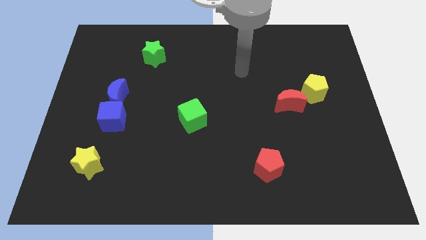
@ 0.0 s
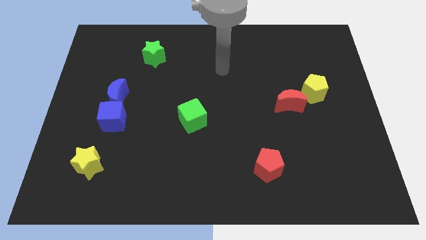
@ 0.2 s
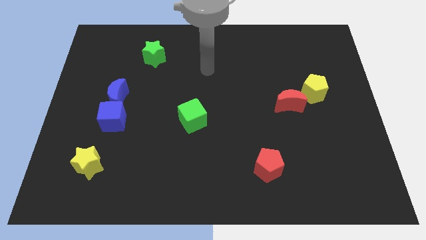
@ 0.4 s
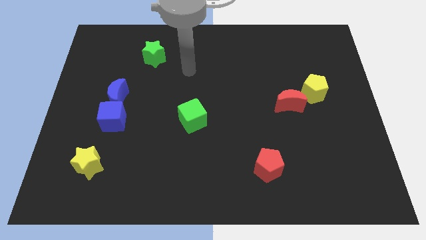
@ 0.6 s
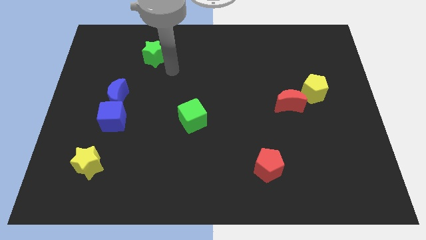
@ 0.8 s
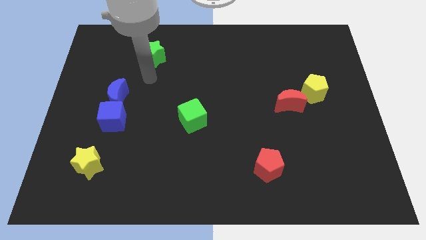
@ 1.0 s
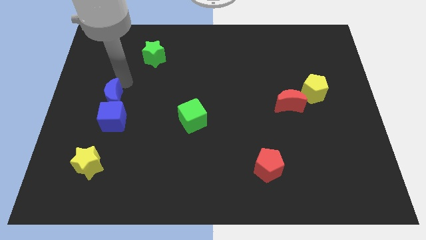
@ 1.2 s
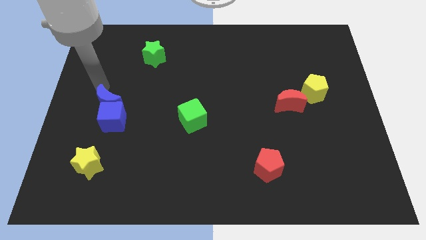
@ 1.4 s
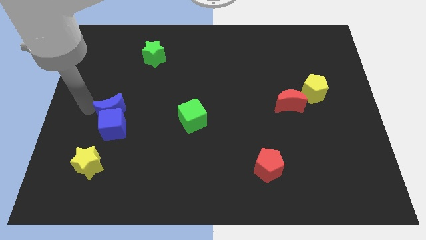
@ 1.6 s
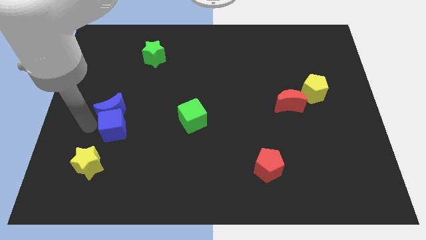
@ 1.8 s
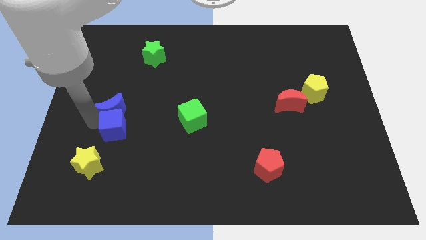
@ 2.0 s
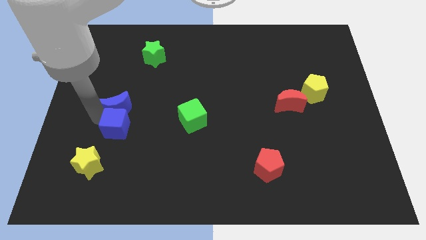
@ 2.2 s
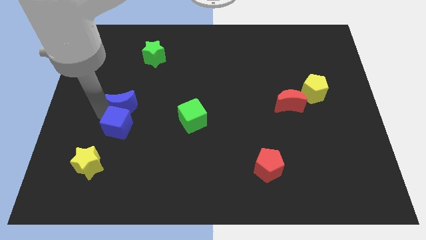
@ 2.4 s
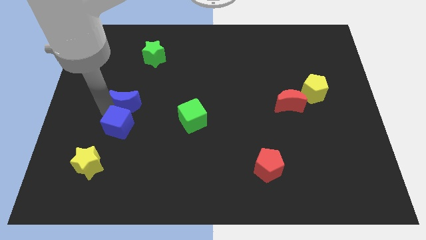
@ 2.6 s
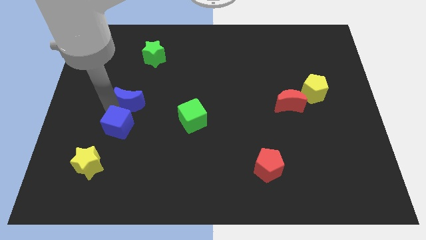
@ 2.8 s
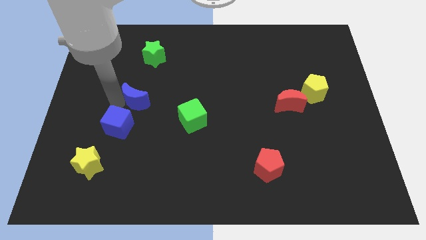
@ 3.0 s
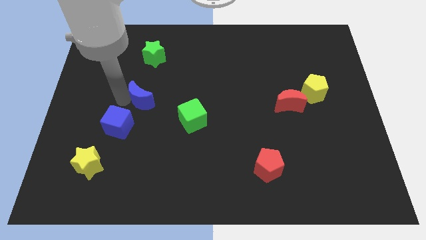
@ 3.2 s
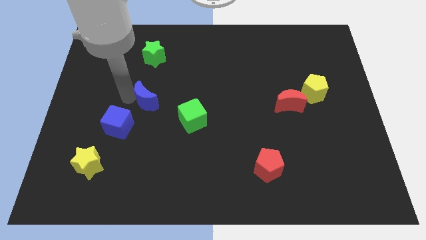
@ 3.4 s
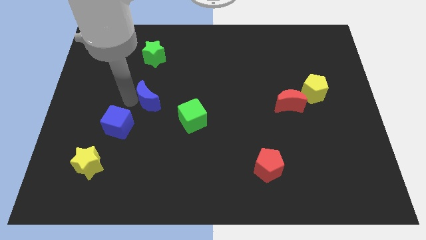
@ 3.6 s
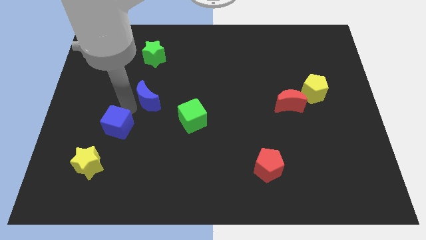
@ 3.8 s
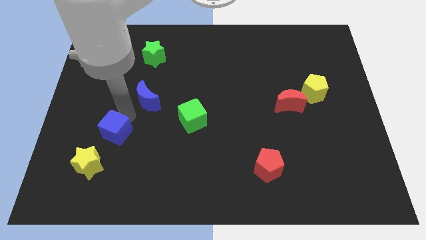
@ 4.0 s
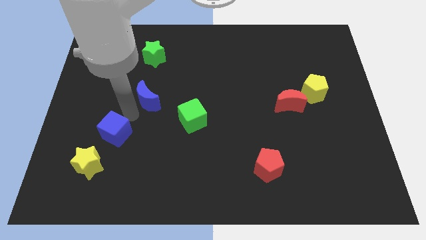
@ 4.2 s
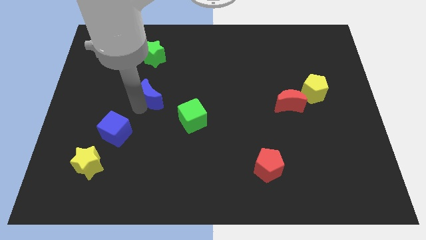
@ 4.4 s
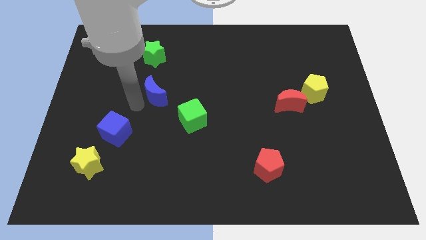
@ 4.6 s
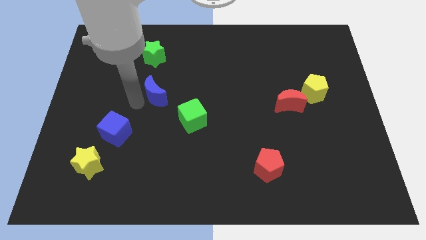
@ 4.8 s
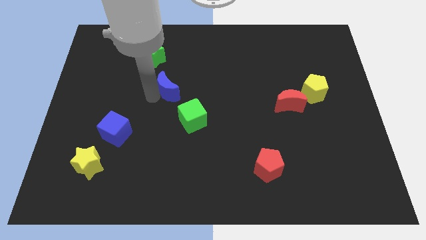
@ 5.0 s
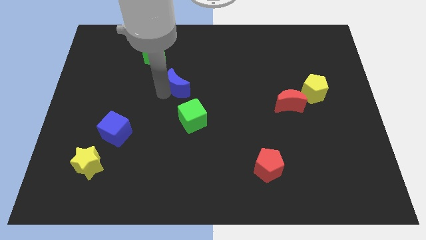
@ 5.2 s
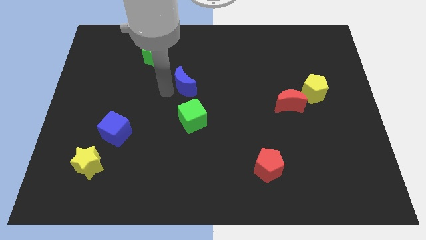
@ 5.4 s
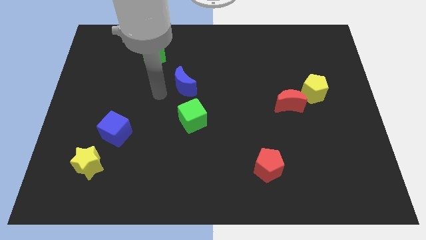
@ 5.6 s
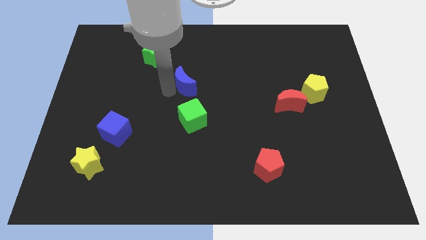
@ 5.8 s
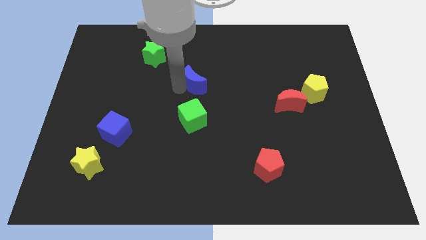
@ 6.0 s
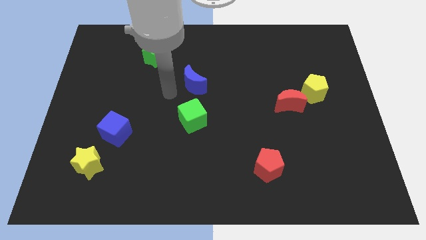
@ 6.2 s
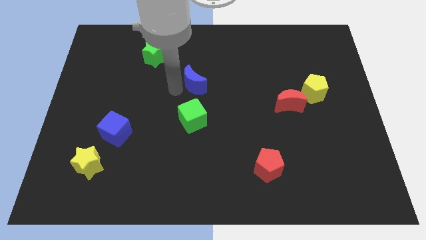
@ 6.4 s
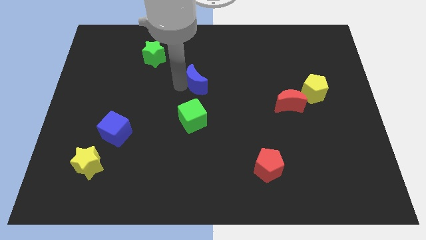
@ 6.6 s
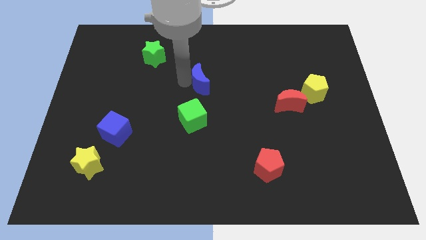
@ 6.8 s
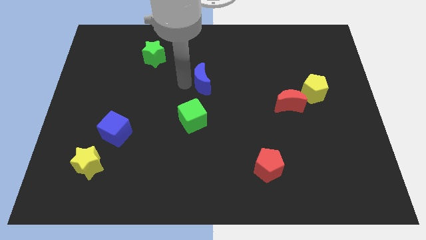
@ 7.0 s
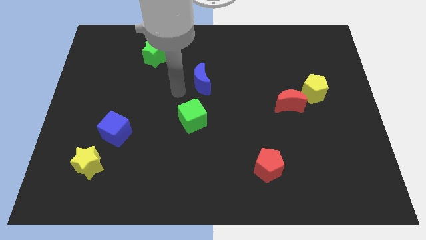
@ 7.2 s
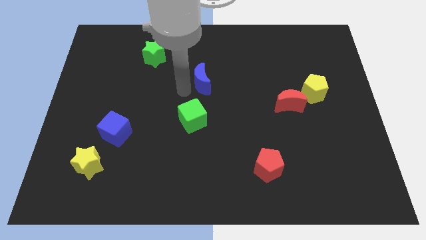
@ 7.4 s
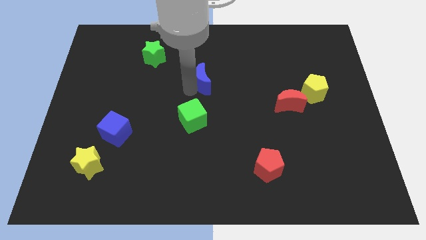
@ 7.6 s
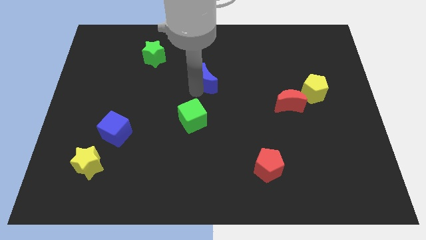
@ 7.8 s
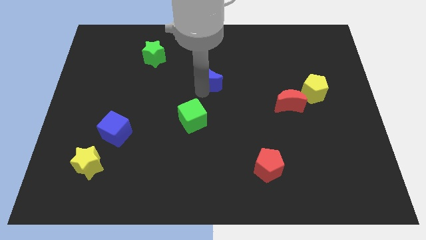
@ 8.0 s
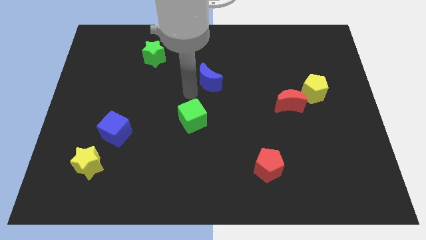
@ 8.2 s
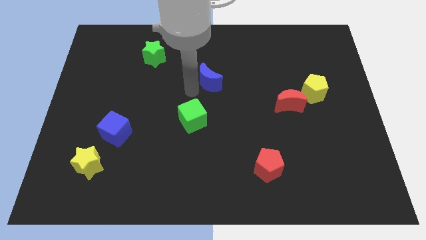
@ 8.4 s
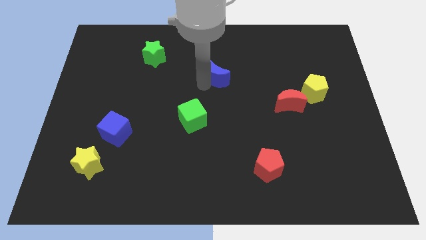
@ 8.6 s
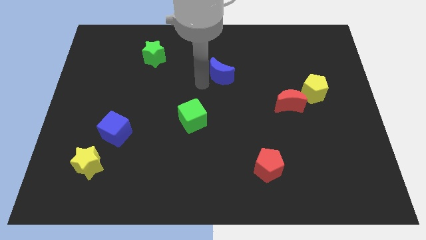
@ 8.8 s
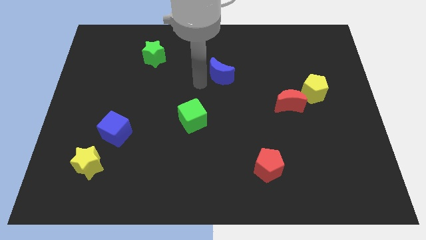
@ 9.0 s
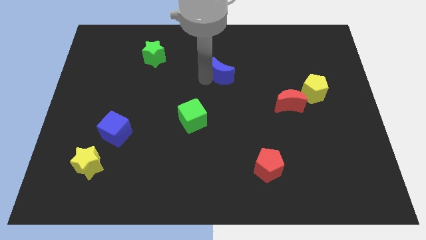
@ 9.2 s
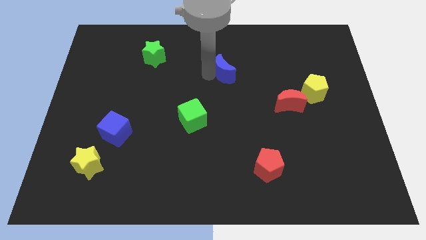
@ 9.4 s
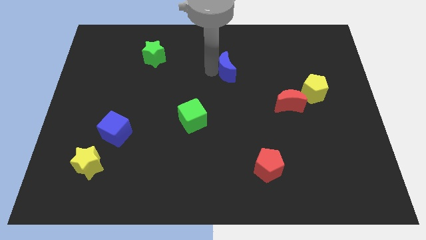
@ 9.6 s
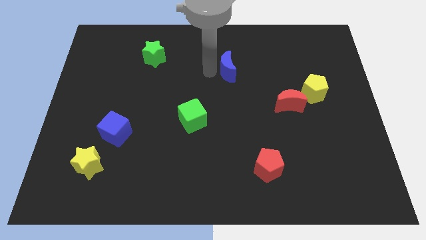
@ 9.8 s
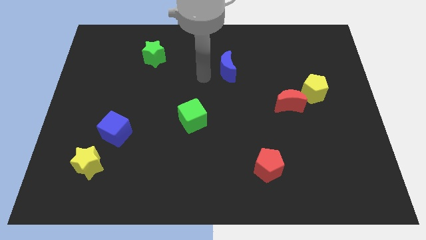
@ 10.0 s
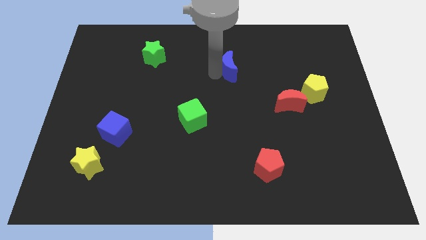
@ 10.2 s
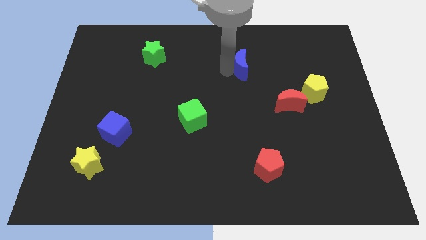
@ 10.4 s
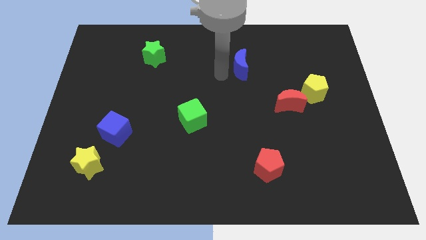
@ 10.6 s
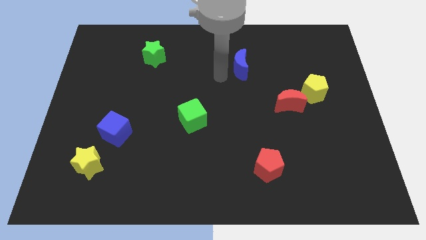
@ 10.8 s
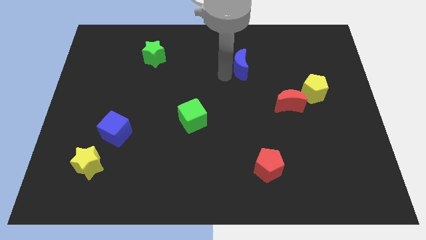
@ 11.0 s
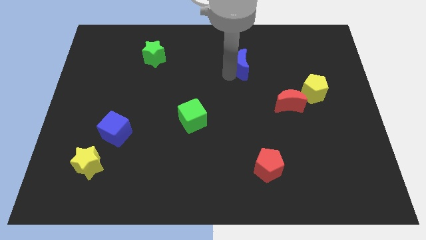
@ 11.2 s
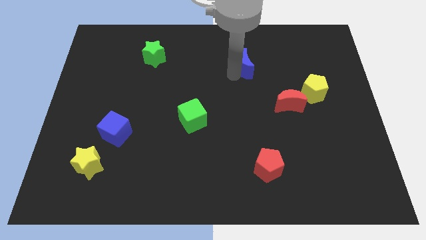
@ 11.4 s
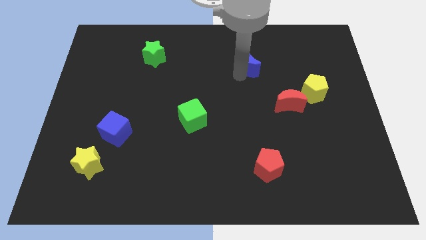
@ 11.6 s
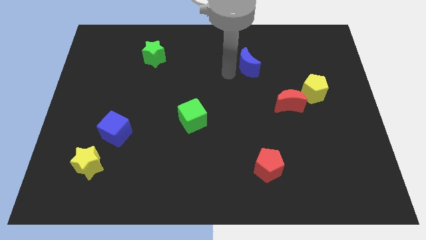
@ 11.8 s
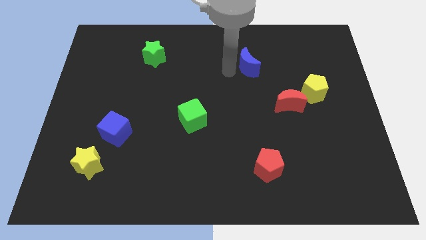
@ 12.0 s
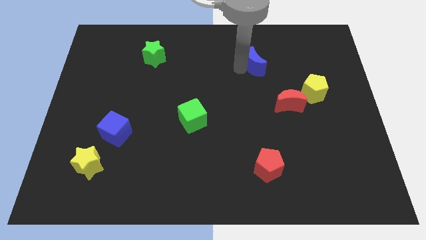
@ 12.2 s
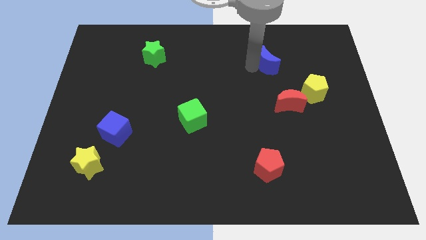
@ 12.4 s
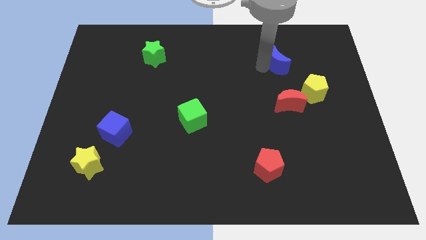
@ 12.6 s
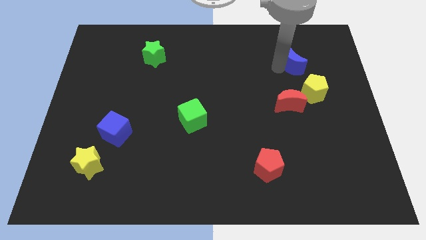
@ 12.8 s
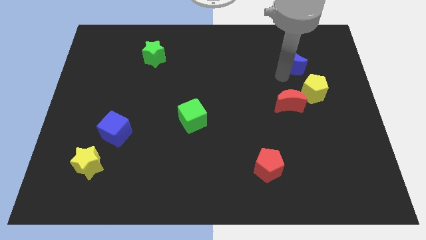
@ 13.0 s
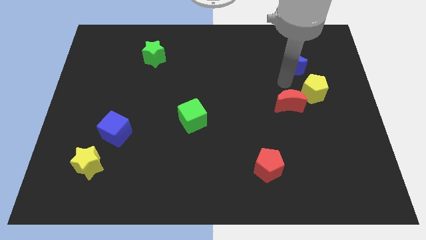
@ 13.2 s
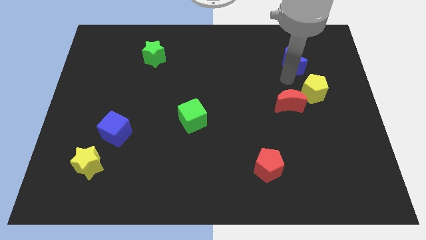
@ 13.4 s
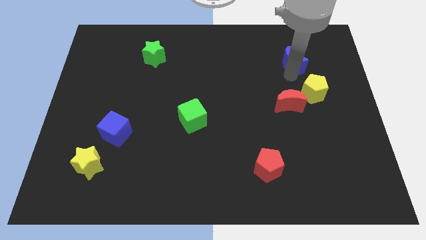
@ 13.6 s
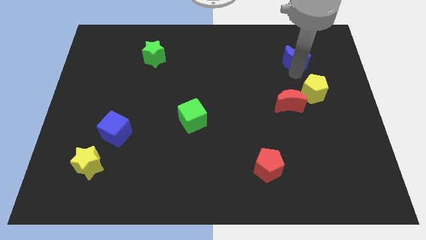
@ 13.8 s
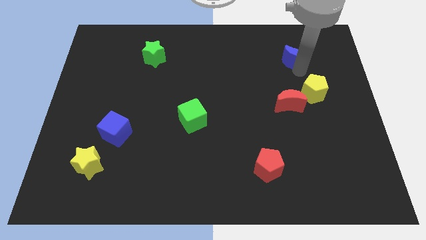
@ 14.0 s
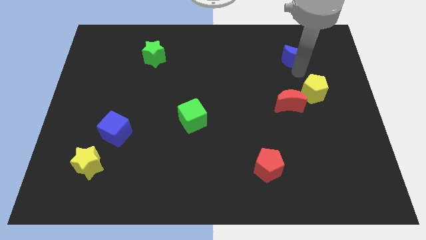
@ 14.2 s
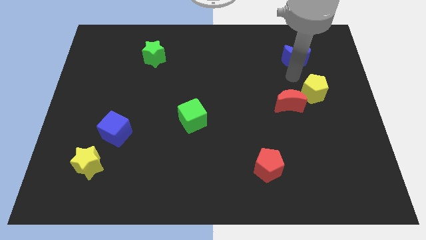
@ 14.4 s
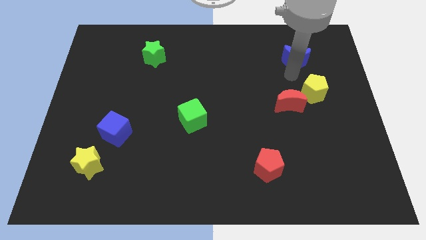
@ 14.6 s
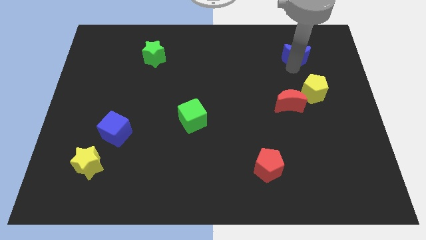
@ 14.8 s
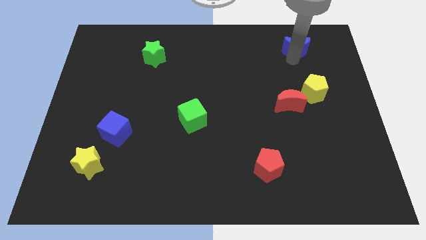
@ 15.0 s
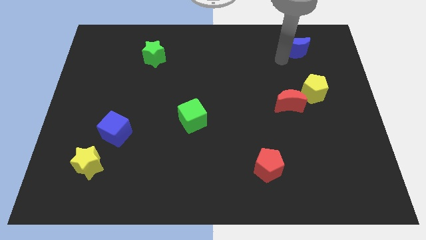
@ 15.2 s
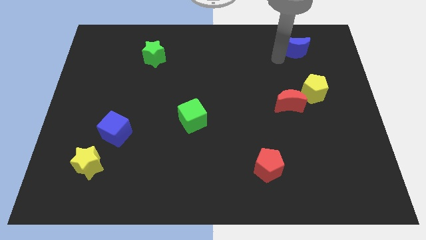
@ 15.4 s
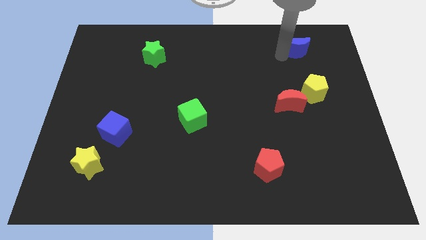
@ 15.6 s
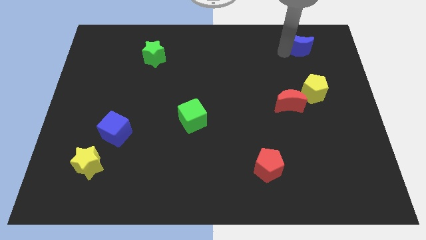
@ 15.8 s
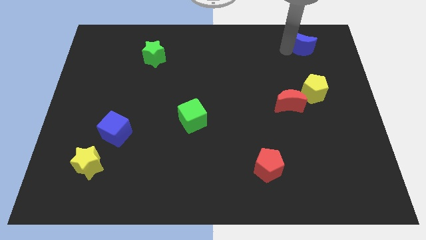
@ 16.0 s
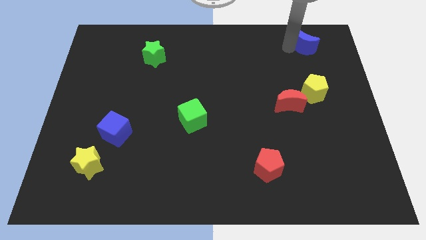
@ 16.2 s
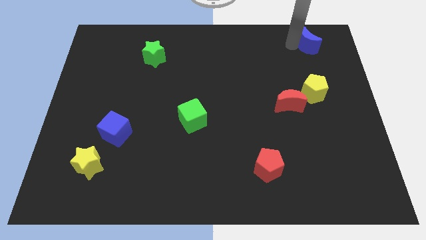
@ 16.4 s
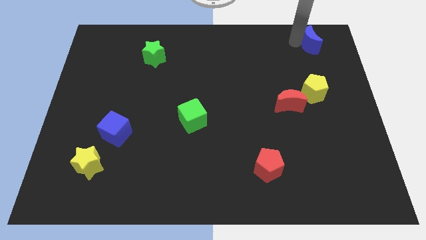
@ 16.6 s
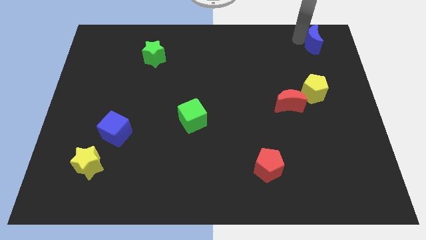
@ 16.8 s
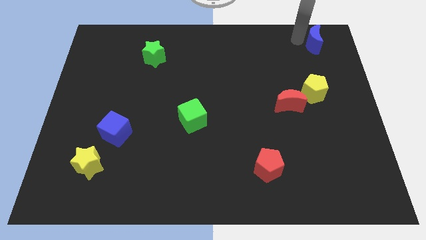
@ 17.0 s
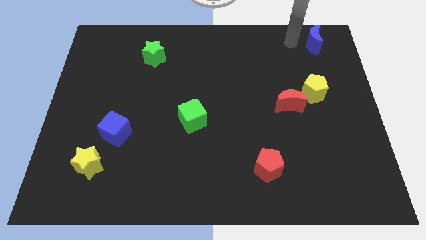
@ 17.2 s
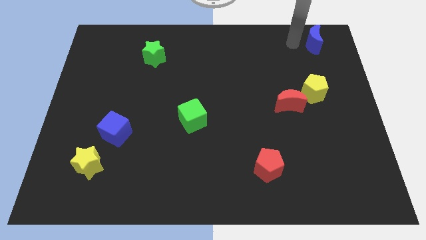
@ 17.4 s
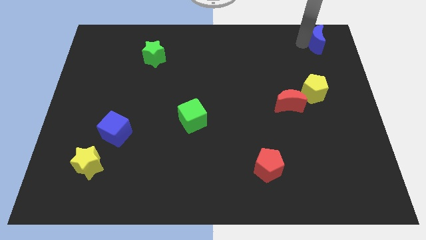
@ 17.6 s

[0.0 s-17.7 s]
slide the blue moon to the top right corner
